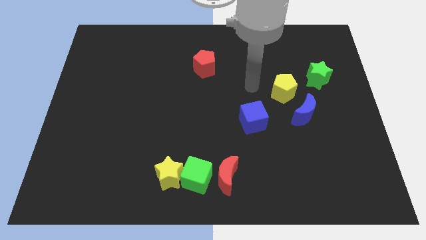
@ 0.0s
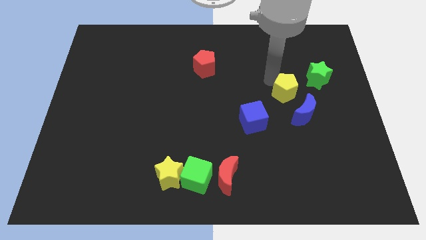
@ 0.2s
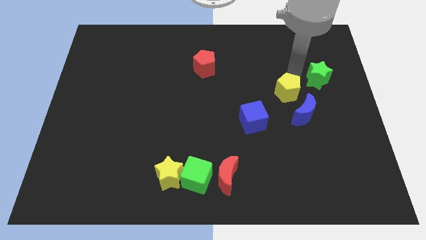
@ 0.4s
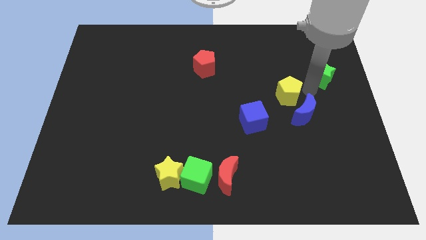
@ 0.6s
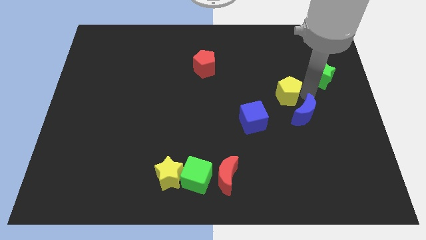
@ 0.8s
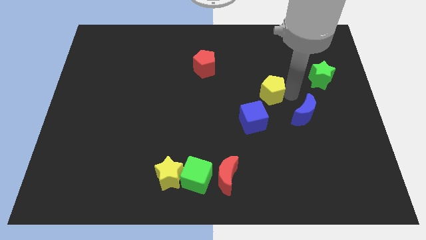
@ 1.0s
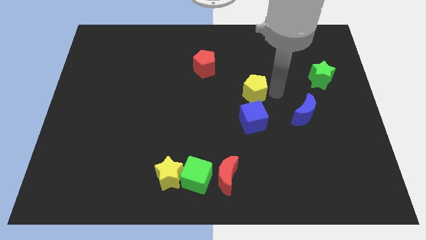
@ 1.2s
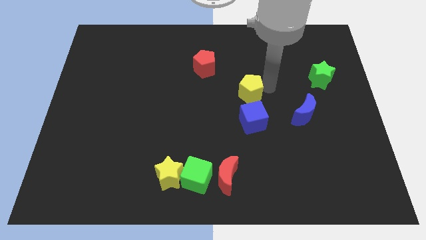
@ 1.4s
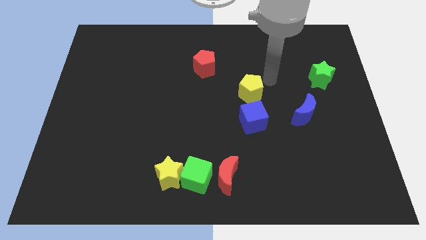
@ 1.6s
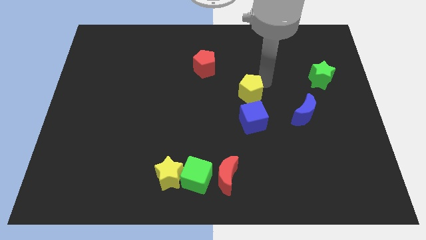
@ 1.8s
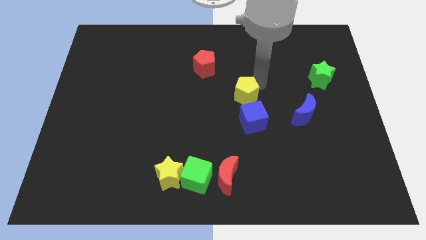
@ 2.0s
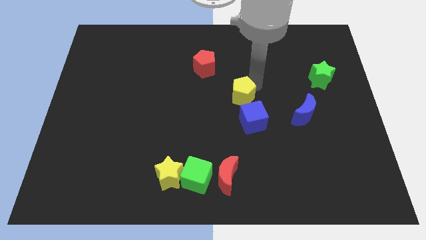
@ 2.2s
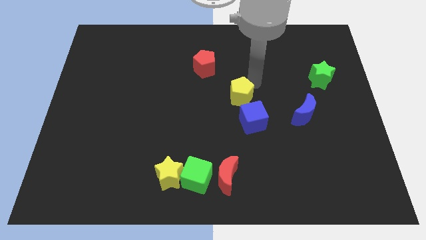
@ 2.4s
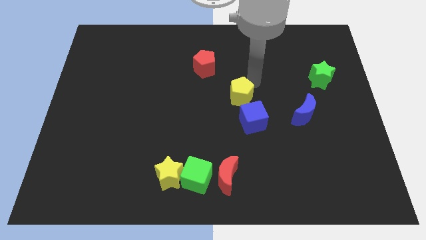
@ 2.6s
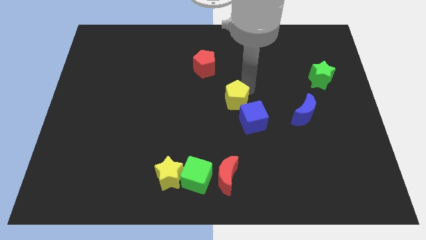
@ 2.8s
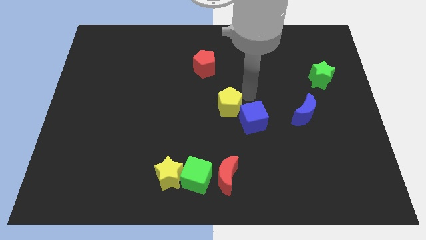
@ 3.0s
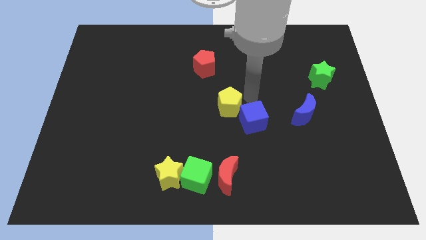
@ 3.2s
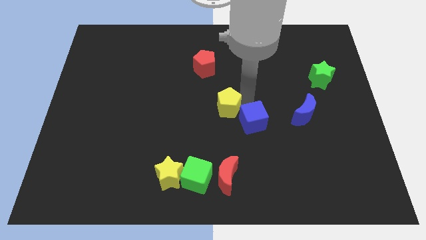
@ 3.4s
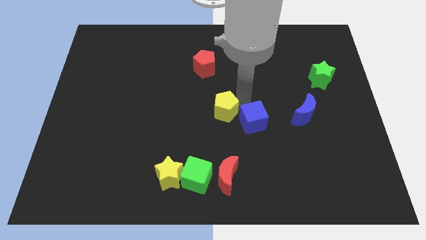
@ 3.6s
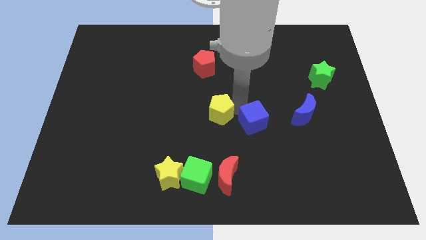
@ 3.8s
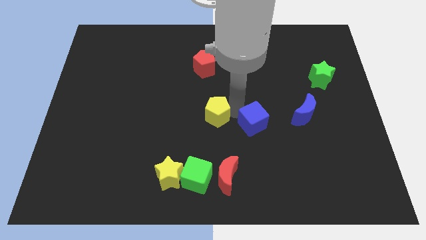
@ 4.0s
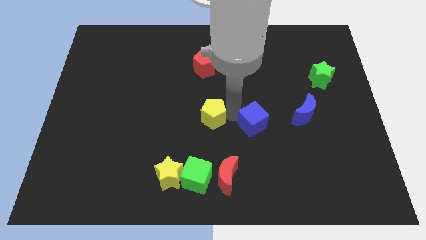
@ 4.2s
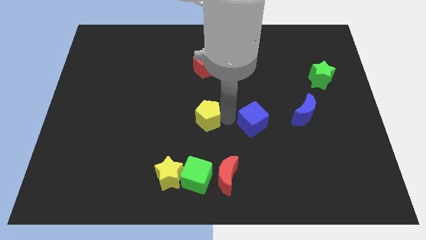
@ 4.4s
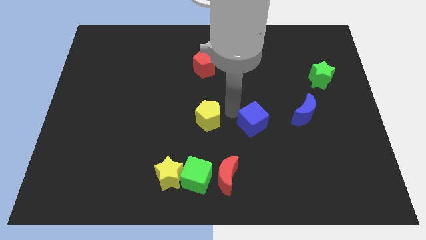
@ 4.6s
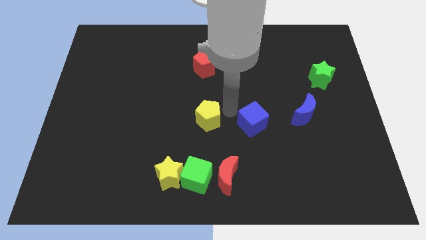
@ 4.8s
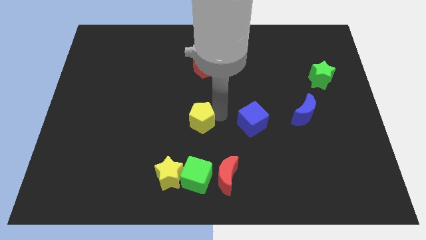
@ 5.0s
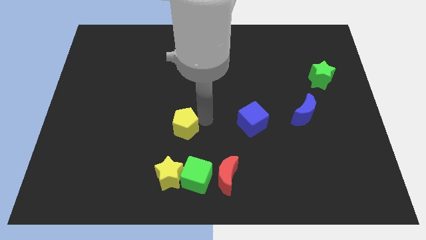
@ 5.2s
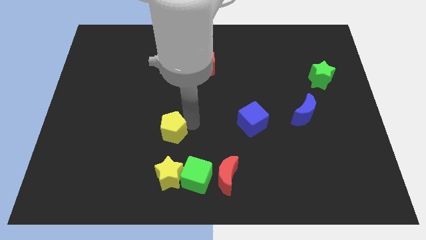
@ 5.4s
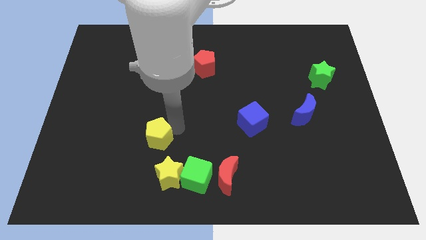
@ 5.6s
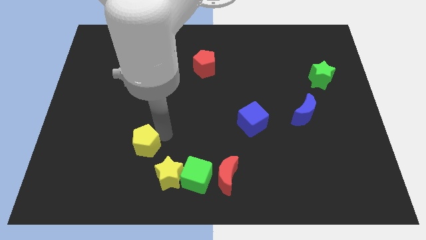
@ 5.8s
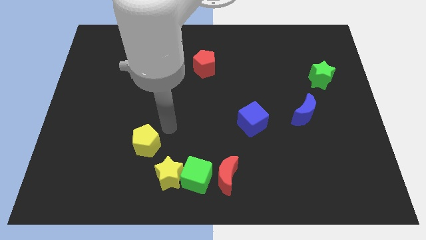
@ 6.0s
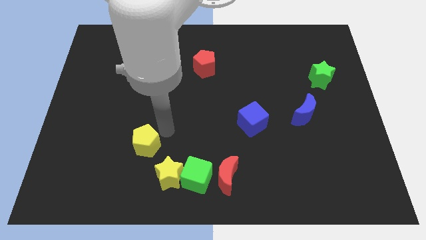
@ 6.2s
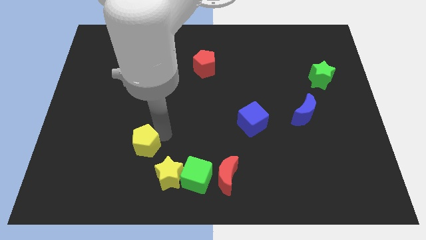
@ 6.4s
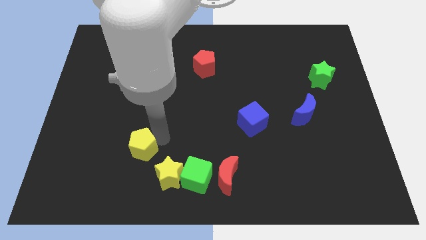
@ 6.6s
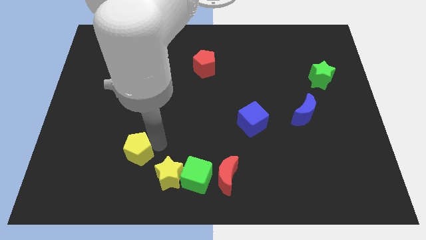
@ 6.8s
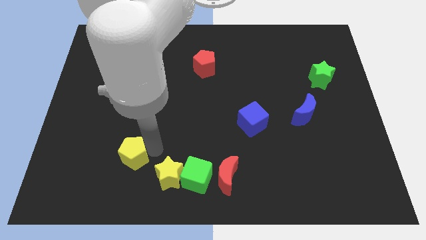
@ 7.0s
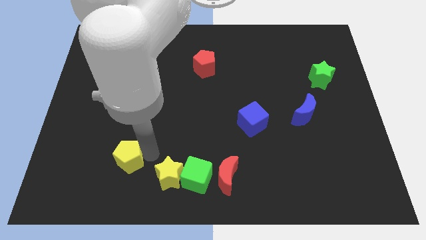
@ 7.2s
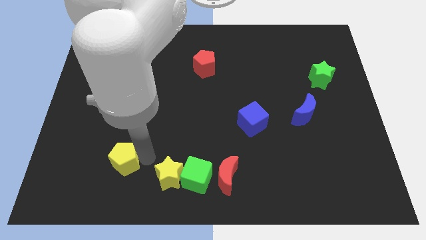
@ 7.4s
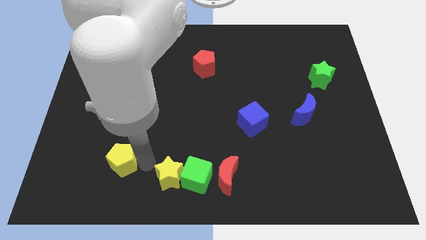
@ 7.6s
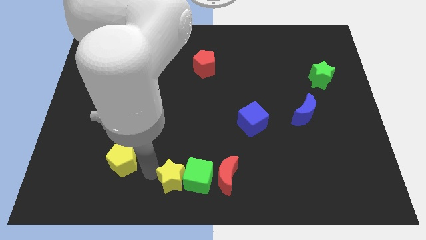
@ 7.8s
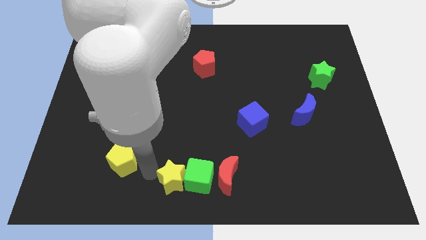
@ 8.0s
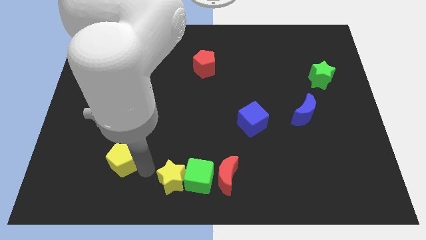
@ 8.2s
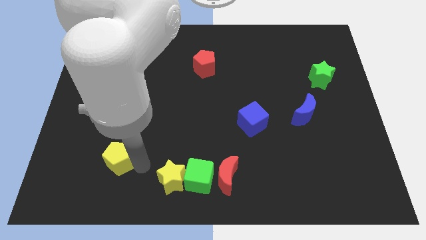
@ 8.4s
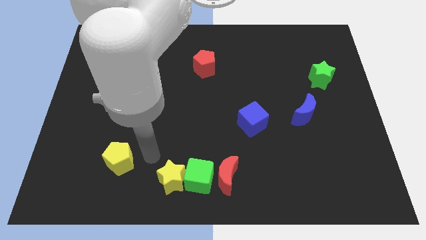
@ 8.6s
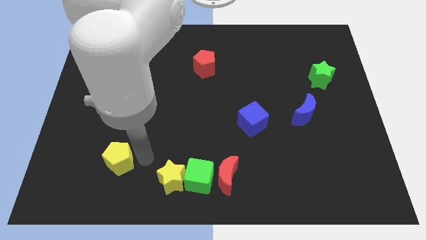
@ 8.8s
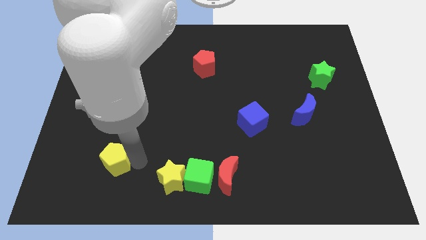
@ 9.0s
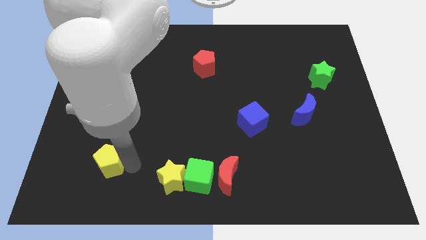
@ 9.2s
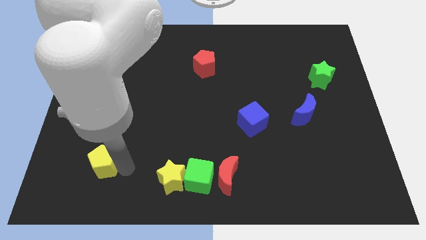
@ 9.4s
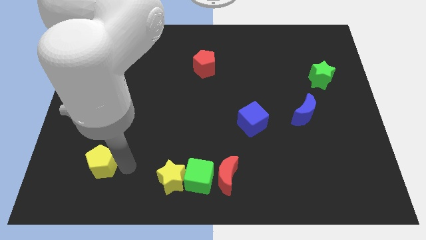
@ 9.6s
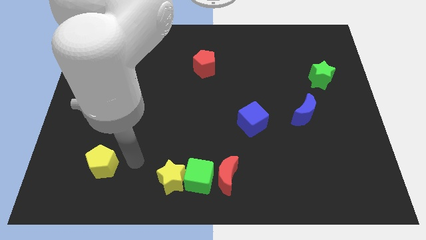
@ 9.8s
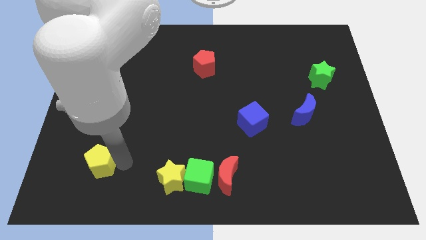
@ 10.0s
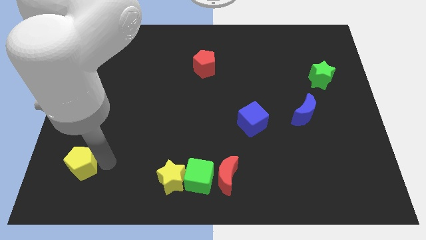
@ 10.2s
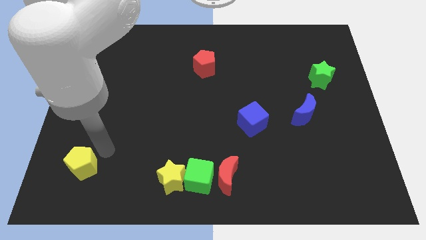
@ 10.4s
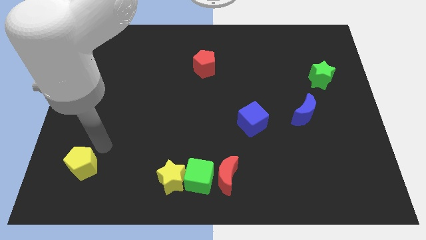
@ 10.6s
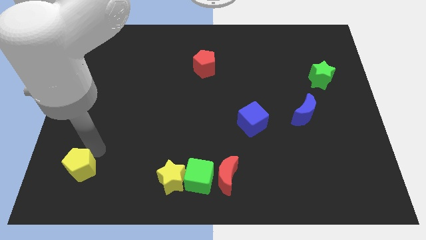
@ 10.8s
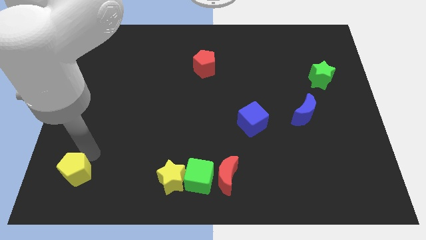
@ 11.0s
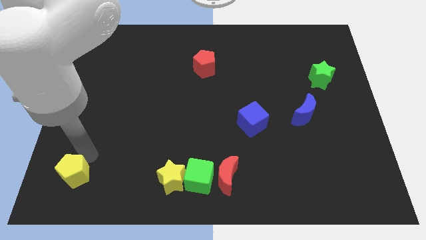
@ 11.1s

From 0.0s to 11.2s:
put the yellow pentagon to the bottom left corner

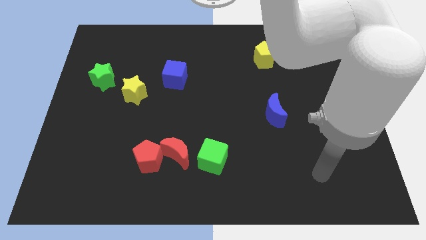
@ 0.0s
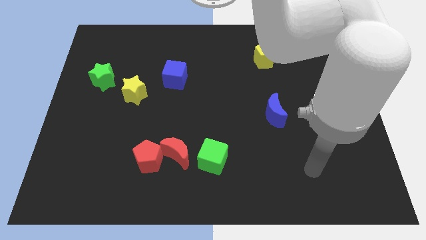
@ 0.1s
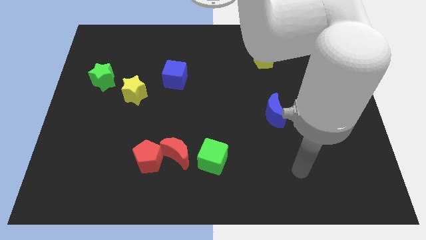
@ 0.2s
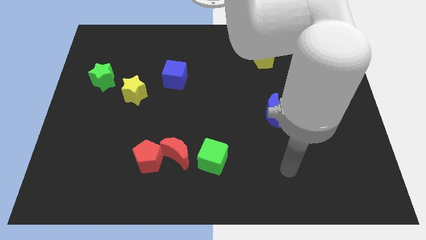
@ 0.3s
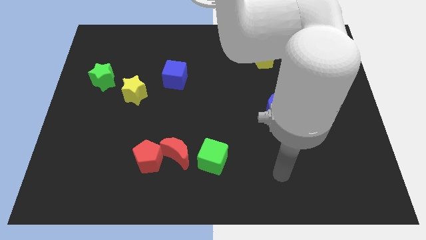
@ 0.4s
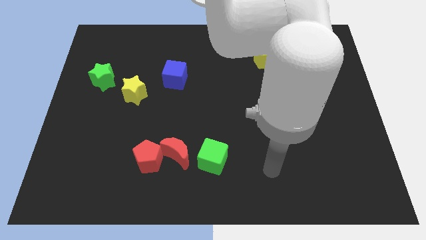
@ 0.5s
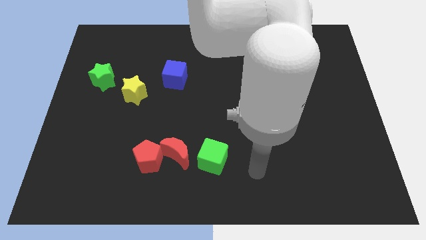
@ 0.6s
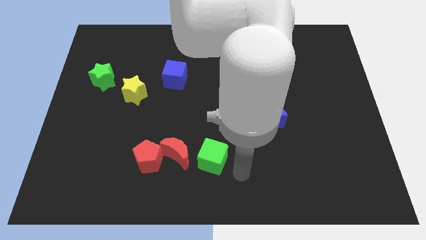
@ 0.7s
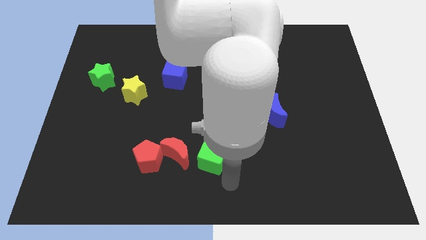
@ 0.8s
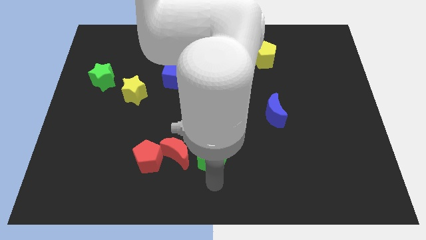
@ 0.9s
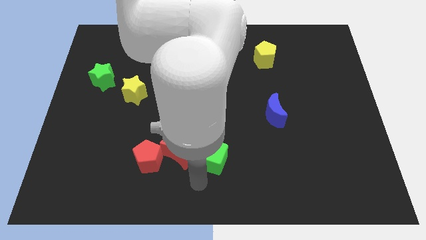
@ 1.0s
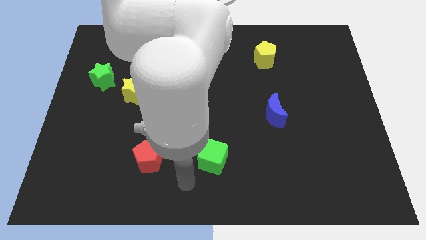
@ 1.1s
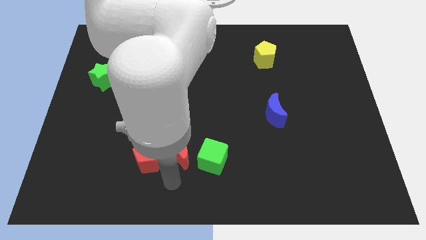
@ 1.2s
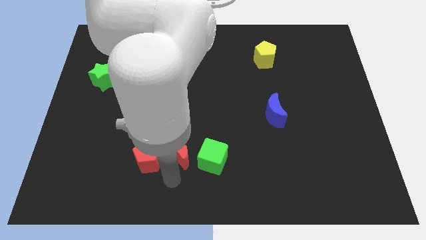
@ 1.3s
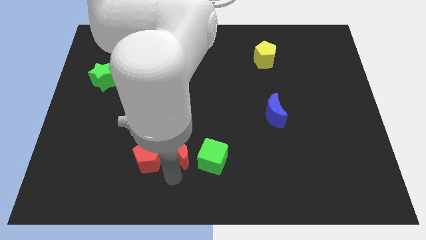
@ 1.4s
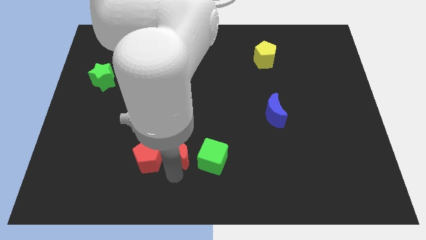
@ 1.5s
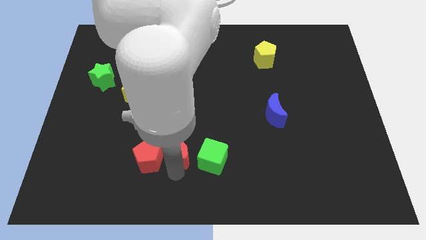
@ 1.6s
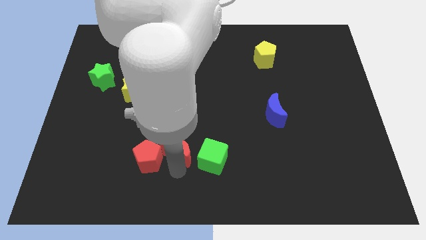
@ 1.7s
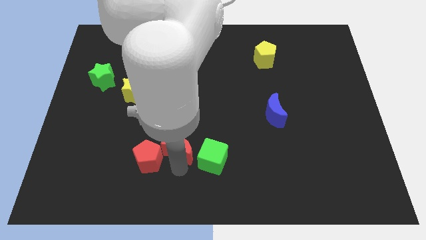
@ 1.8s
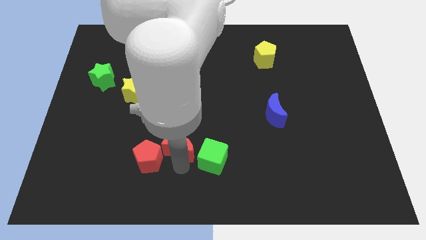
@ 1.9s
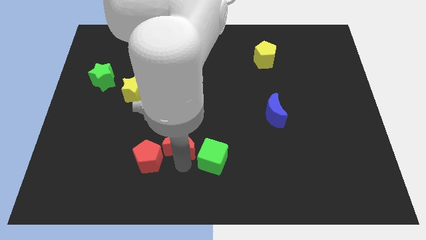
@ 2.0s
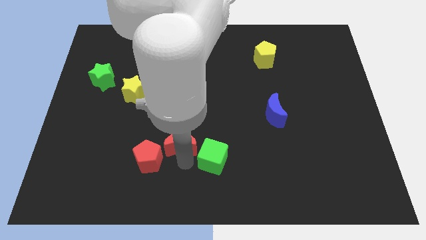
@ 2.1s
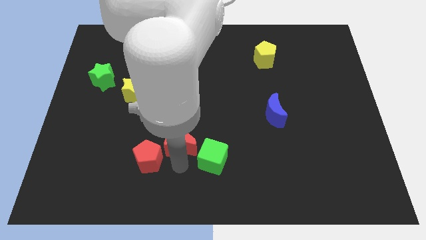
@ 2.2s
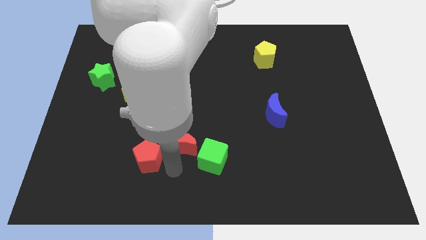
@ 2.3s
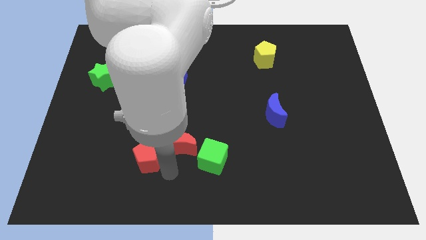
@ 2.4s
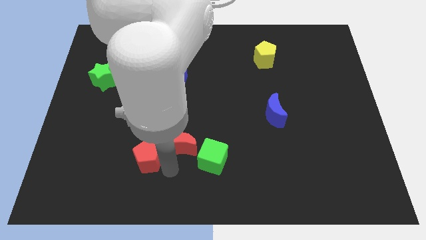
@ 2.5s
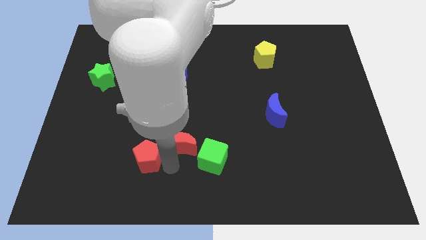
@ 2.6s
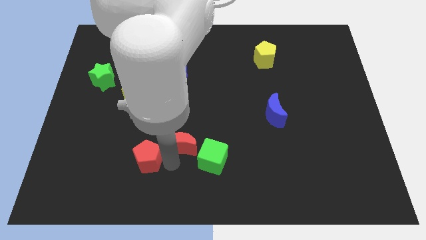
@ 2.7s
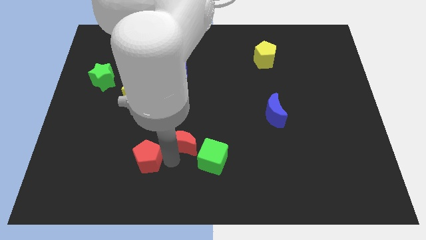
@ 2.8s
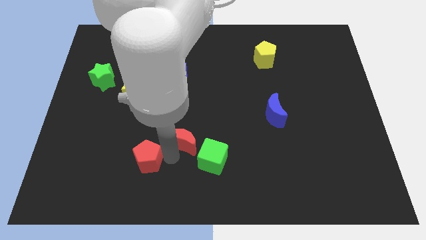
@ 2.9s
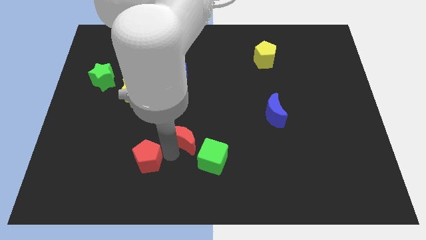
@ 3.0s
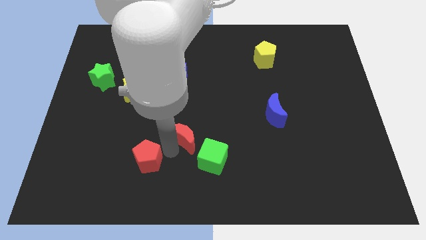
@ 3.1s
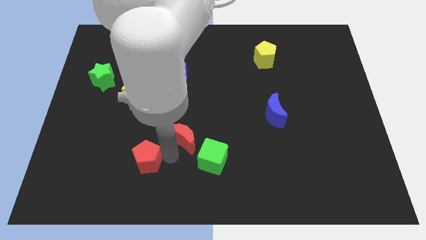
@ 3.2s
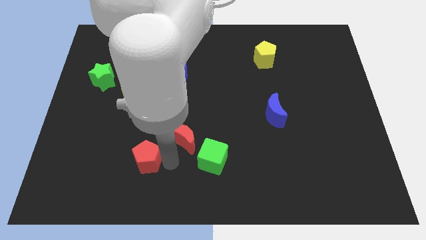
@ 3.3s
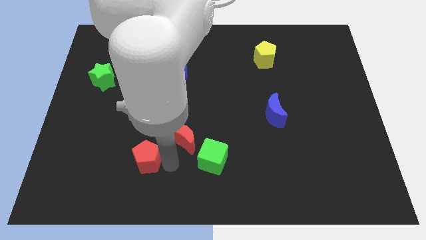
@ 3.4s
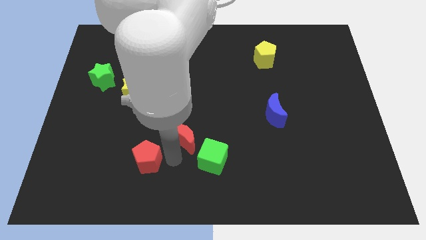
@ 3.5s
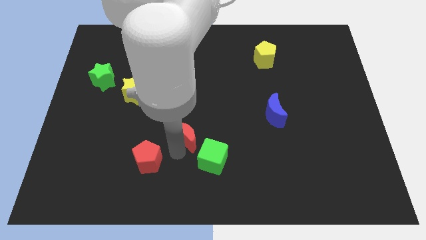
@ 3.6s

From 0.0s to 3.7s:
put the red moon to the middle of the board
